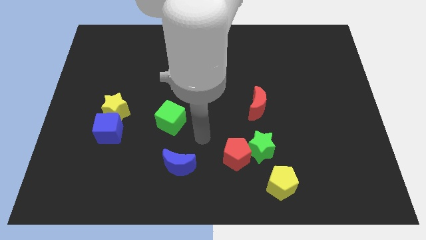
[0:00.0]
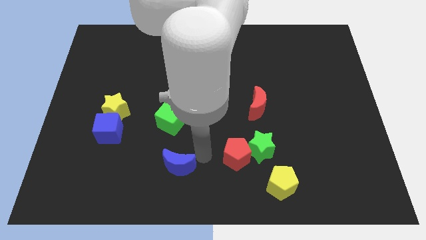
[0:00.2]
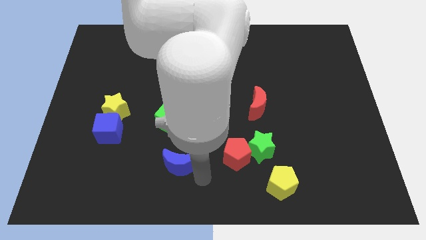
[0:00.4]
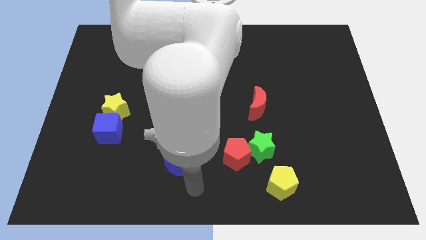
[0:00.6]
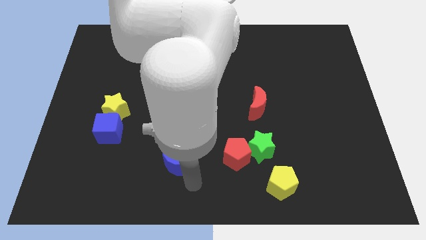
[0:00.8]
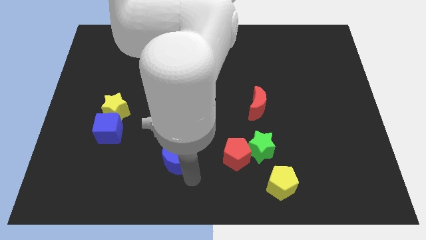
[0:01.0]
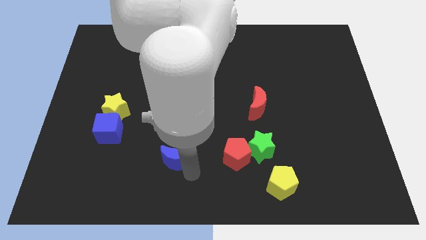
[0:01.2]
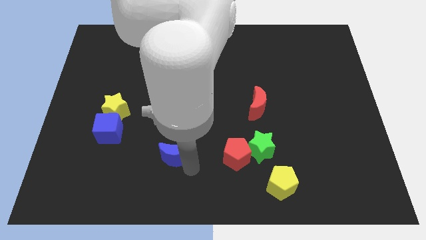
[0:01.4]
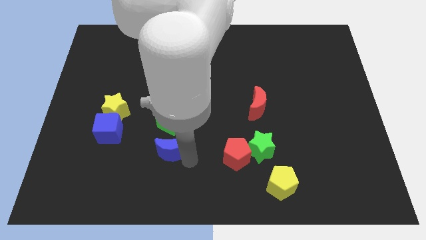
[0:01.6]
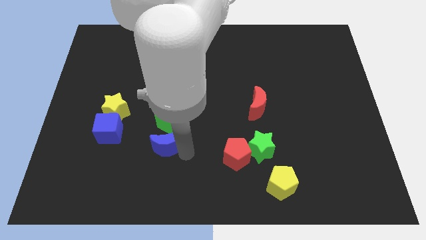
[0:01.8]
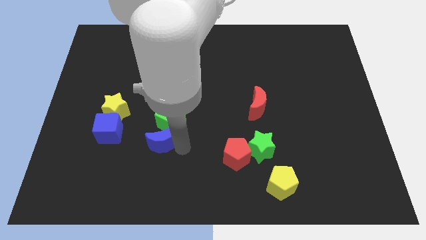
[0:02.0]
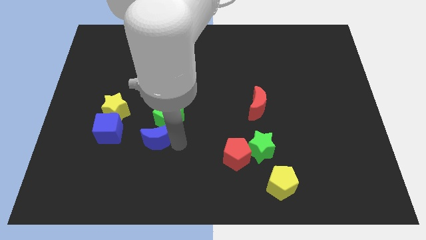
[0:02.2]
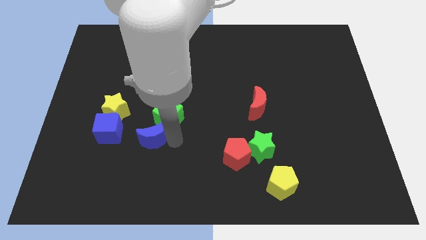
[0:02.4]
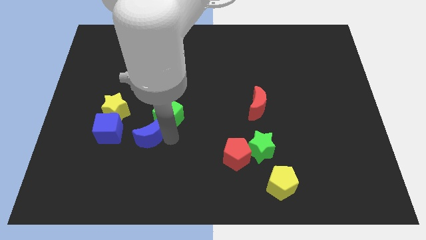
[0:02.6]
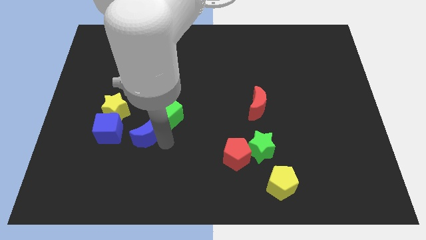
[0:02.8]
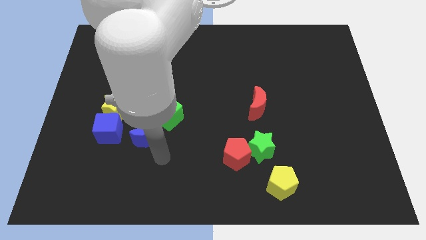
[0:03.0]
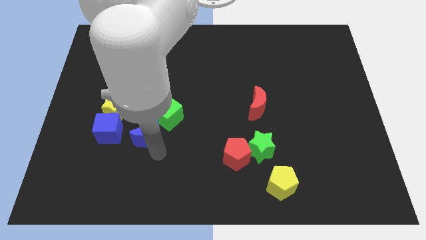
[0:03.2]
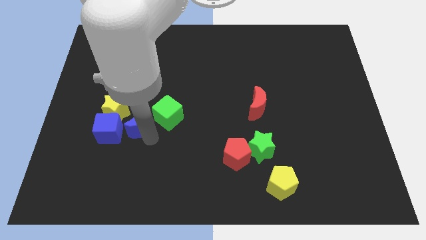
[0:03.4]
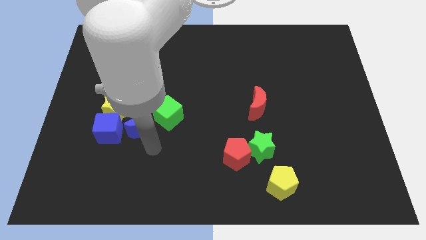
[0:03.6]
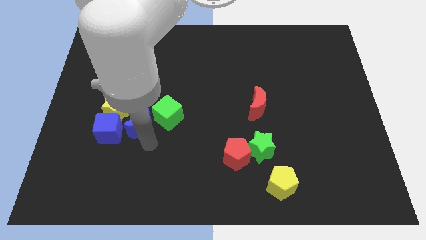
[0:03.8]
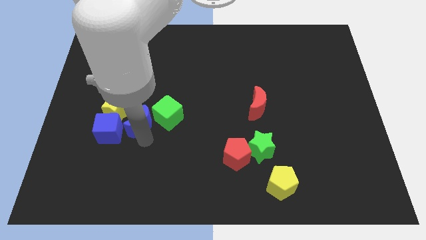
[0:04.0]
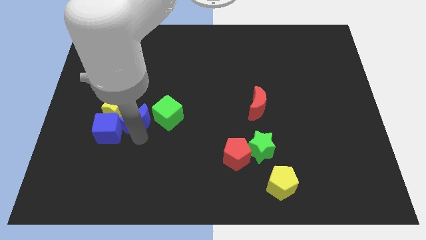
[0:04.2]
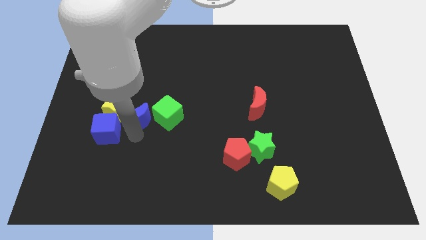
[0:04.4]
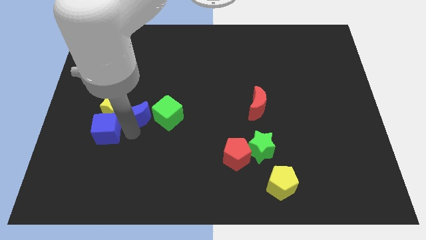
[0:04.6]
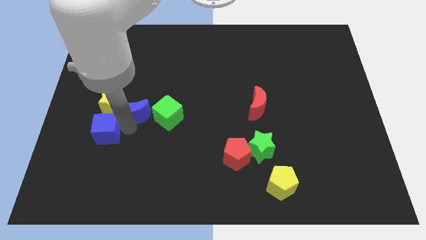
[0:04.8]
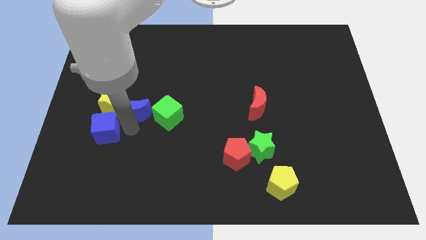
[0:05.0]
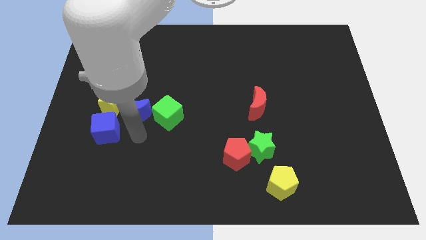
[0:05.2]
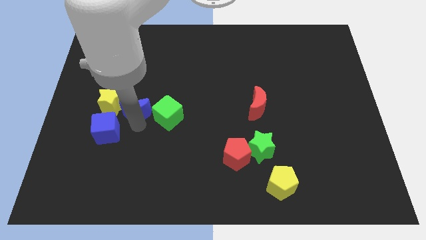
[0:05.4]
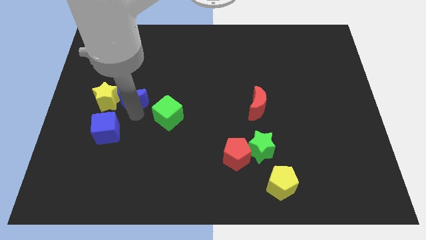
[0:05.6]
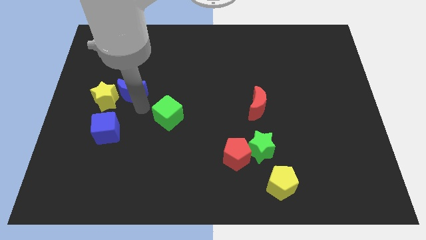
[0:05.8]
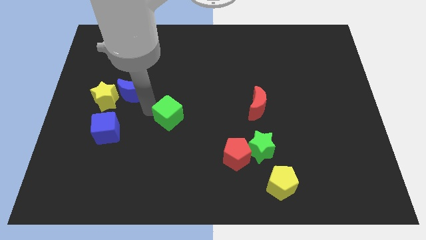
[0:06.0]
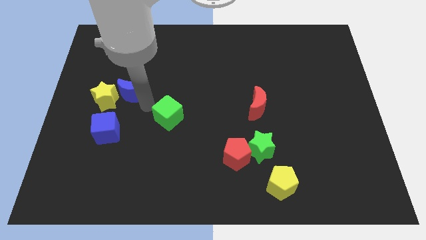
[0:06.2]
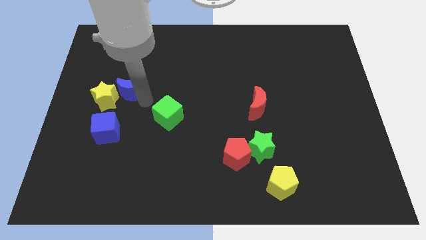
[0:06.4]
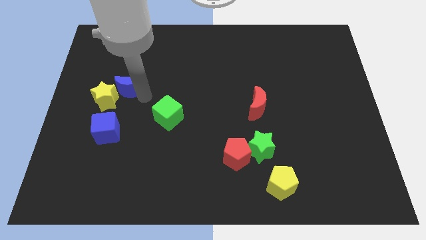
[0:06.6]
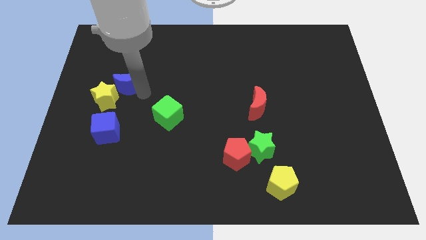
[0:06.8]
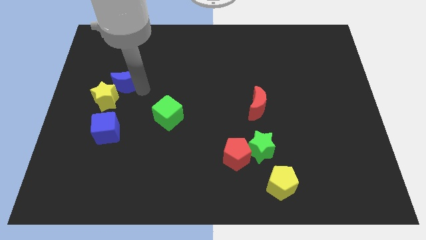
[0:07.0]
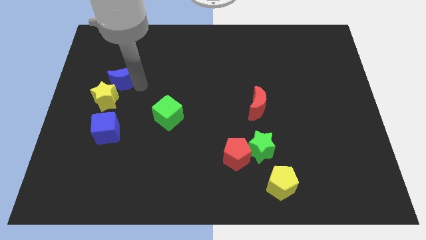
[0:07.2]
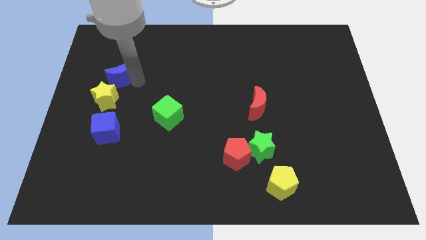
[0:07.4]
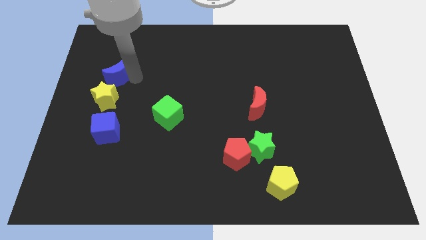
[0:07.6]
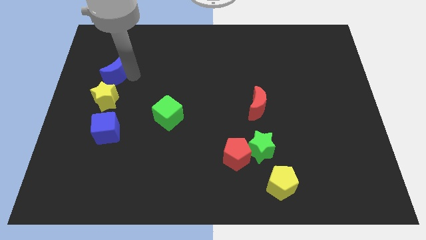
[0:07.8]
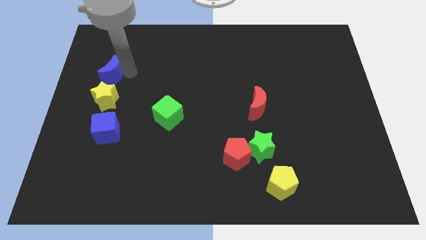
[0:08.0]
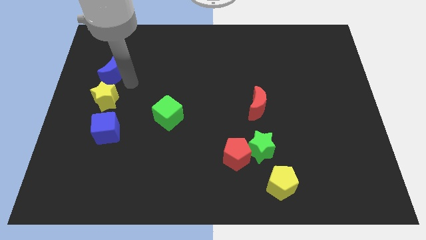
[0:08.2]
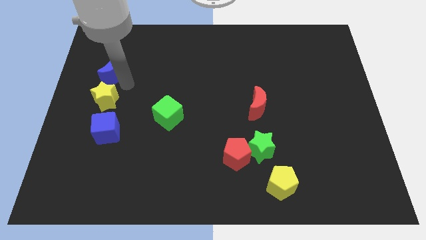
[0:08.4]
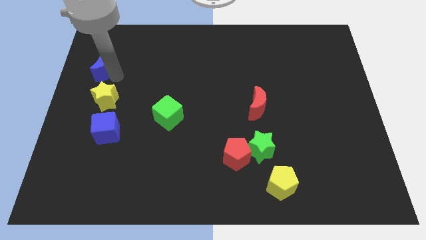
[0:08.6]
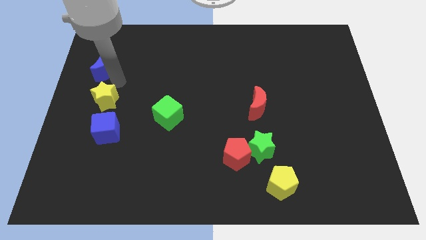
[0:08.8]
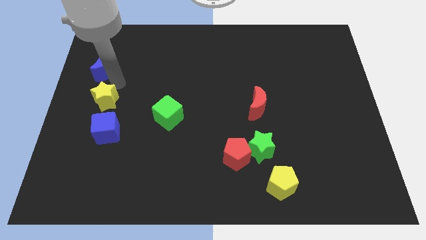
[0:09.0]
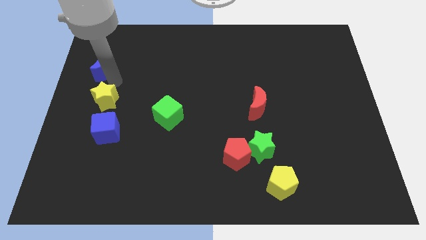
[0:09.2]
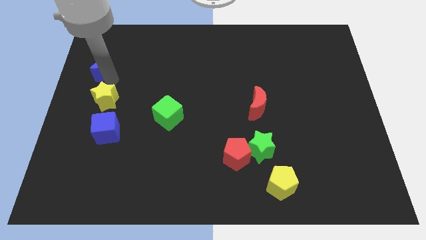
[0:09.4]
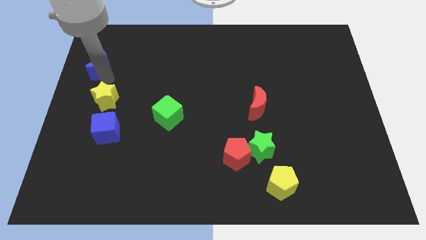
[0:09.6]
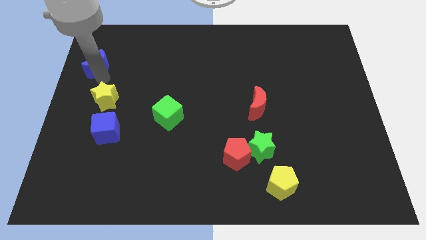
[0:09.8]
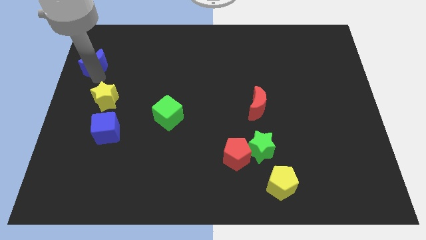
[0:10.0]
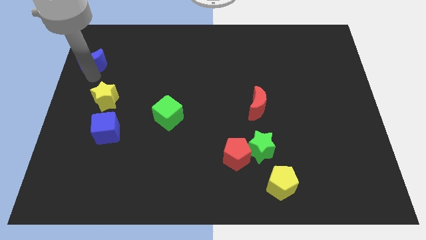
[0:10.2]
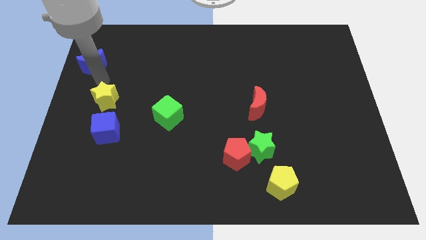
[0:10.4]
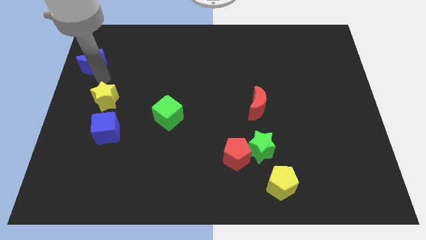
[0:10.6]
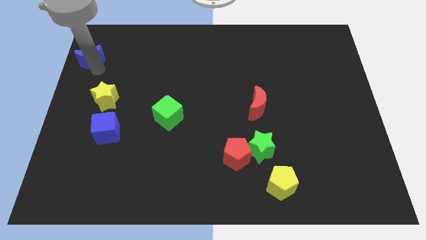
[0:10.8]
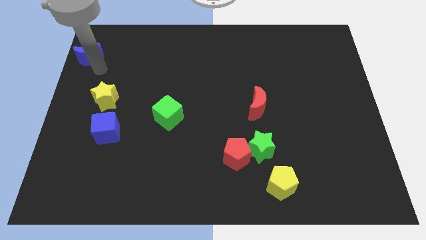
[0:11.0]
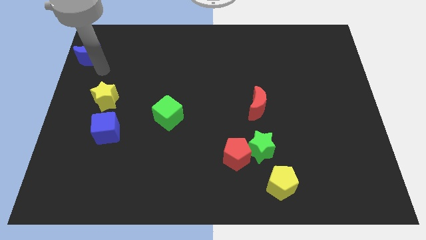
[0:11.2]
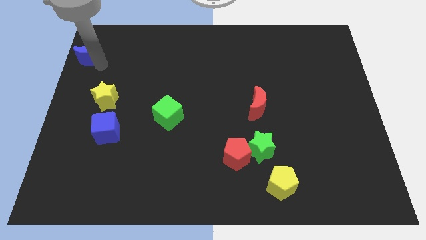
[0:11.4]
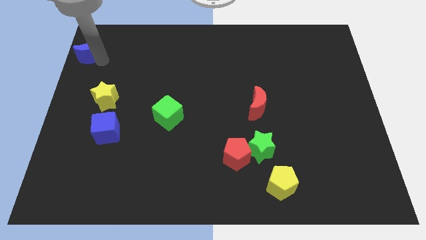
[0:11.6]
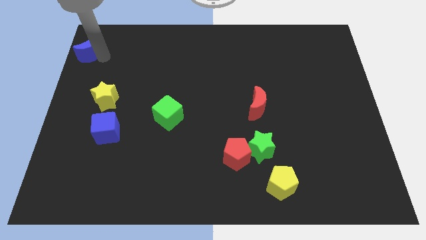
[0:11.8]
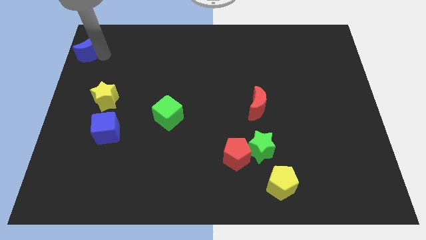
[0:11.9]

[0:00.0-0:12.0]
move the blue moon to the upper left corner

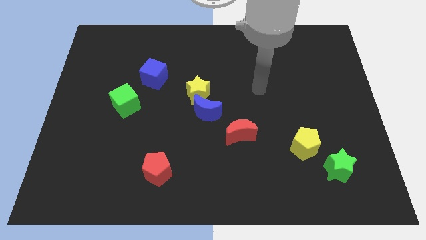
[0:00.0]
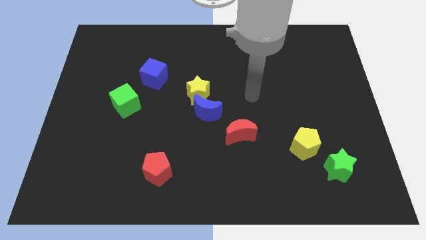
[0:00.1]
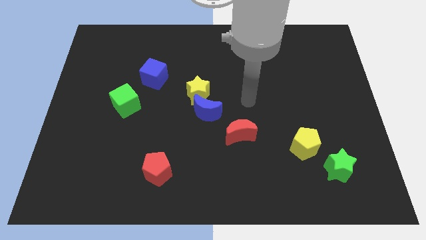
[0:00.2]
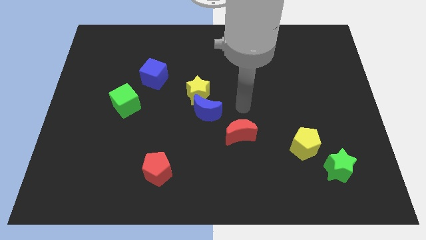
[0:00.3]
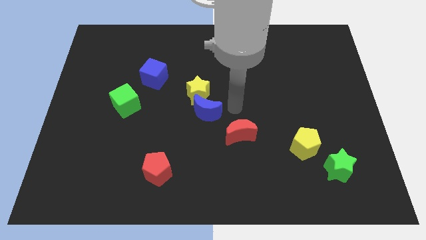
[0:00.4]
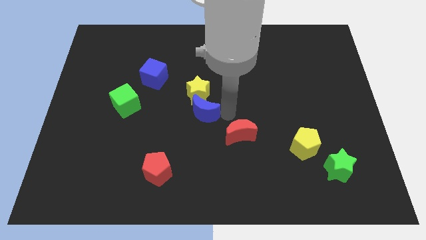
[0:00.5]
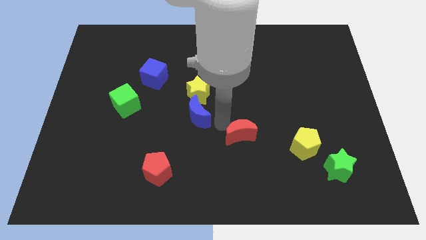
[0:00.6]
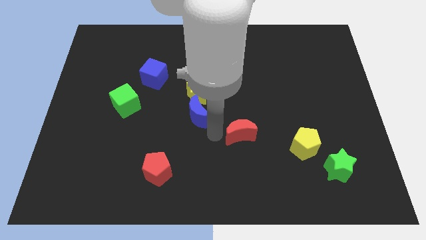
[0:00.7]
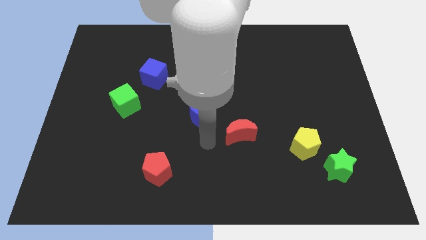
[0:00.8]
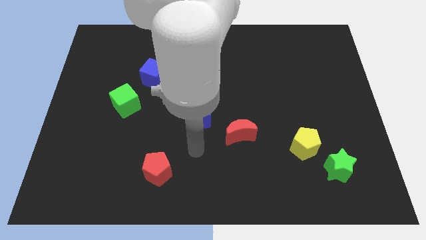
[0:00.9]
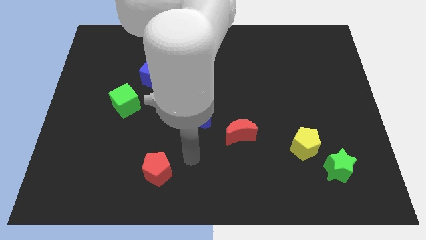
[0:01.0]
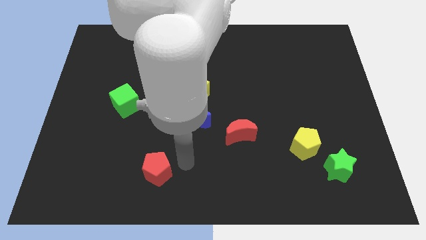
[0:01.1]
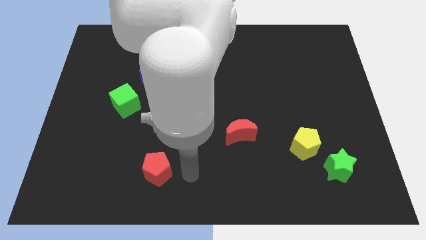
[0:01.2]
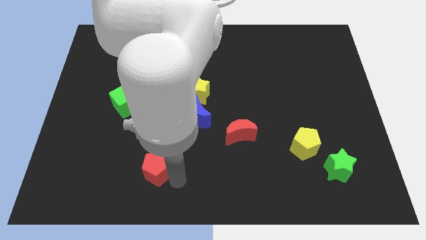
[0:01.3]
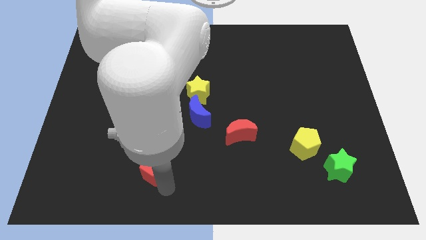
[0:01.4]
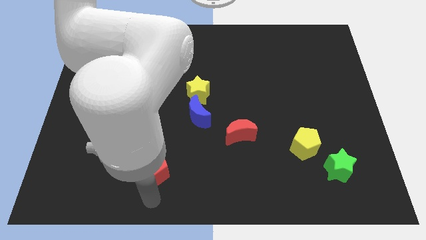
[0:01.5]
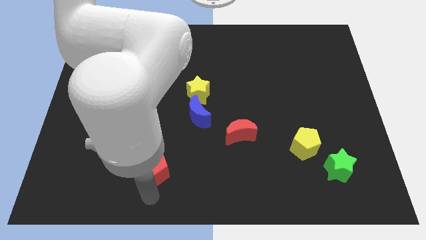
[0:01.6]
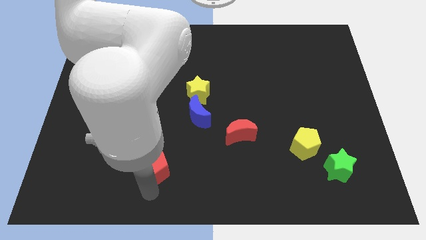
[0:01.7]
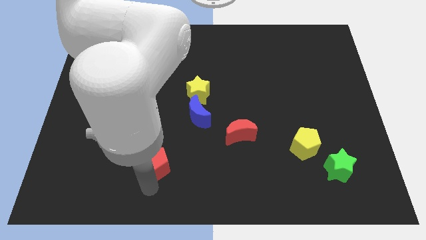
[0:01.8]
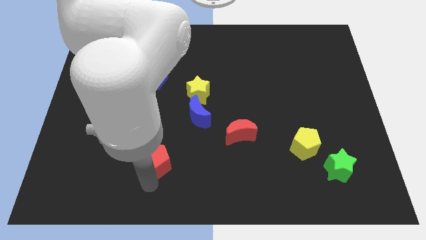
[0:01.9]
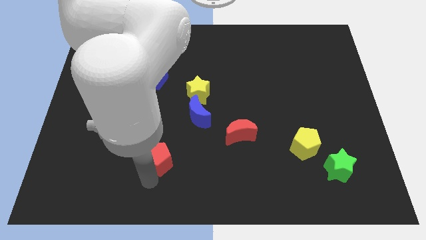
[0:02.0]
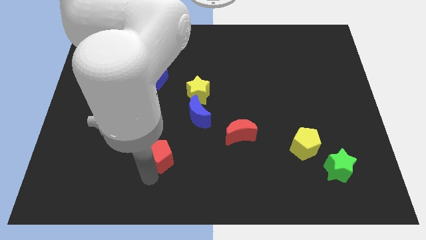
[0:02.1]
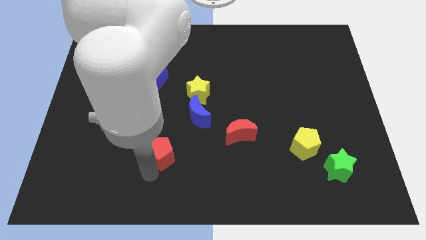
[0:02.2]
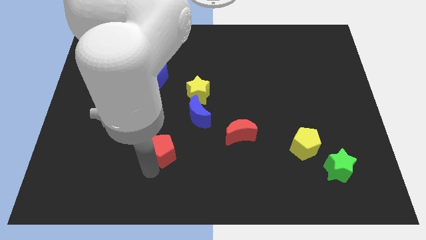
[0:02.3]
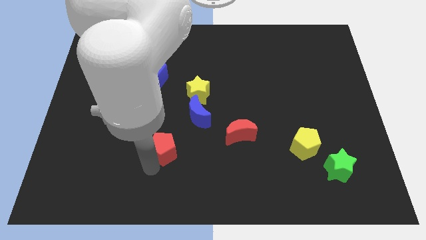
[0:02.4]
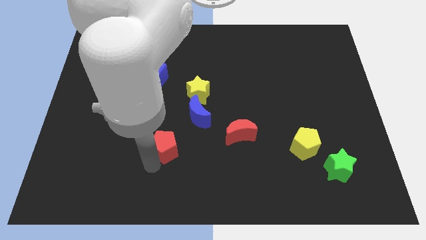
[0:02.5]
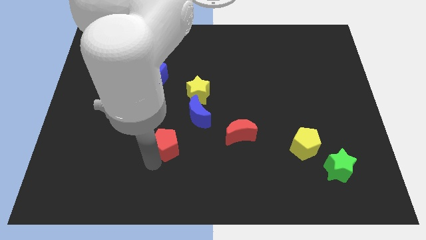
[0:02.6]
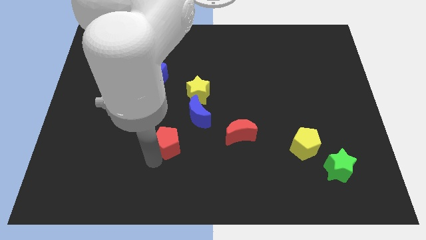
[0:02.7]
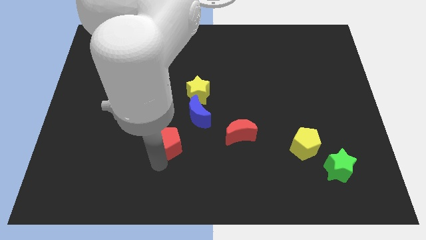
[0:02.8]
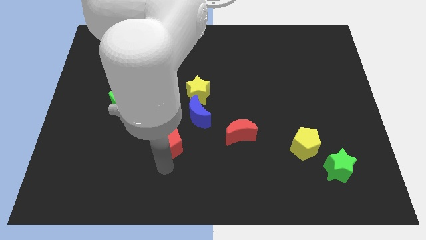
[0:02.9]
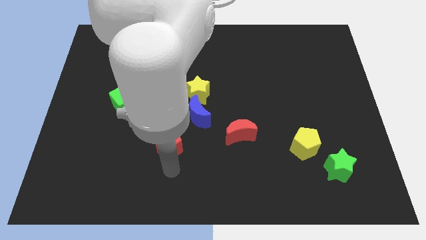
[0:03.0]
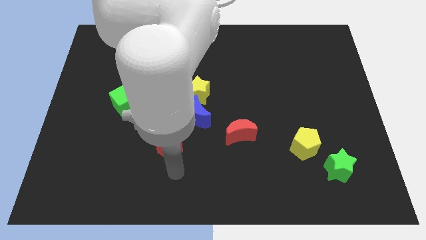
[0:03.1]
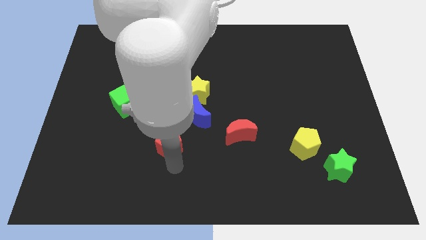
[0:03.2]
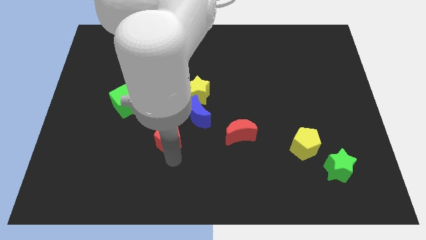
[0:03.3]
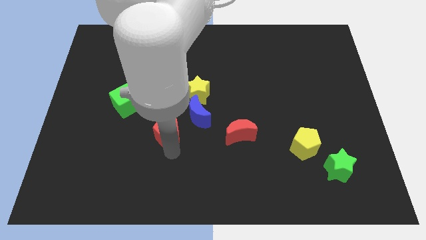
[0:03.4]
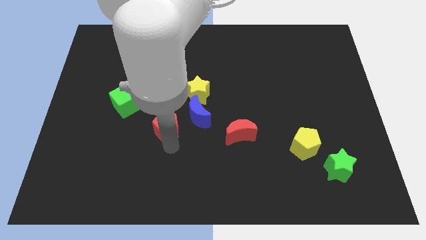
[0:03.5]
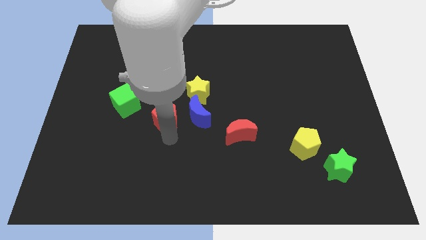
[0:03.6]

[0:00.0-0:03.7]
slide the red pentagon to the center
